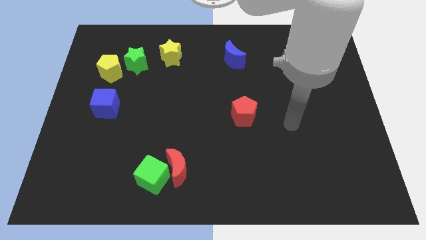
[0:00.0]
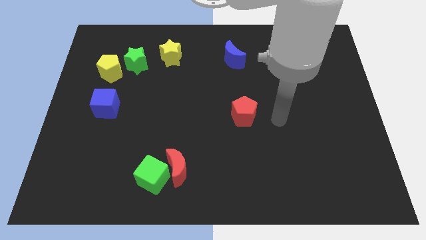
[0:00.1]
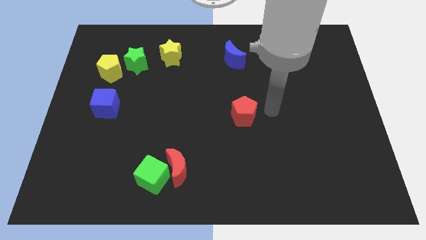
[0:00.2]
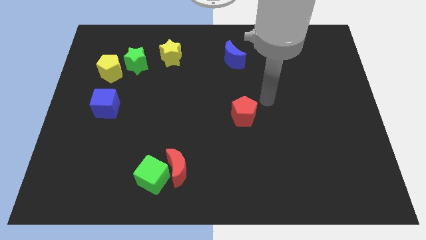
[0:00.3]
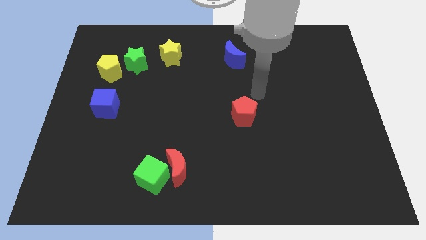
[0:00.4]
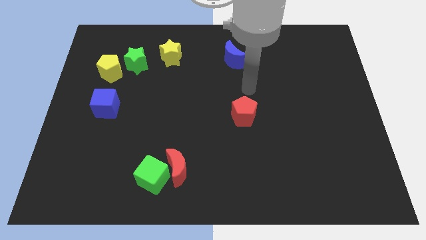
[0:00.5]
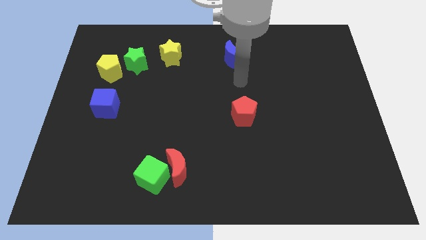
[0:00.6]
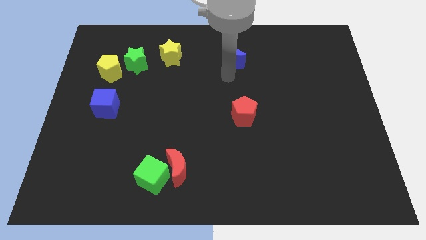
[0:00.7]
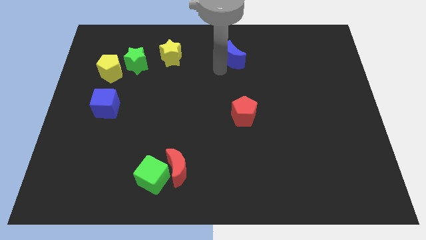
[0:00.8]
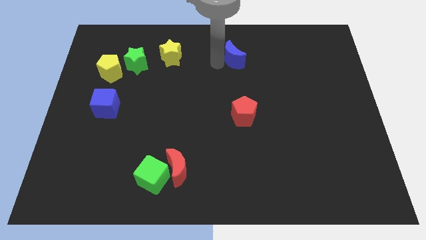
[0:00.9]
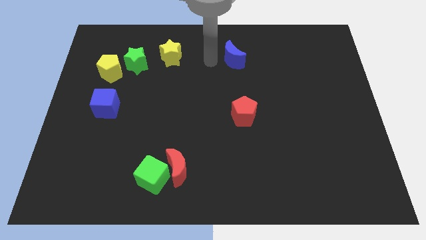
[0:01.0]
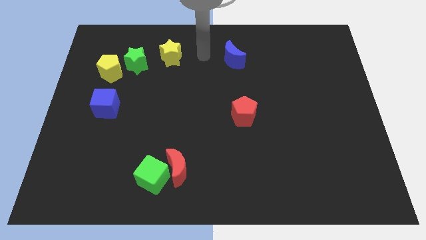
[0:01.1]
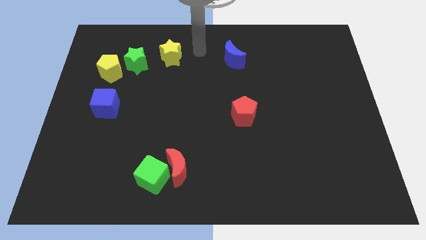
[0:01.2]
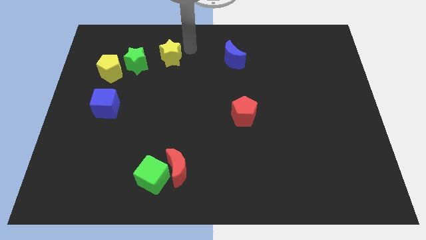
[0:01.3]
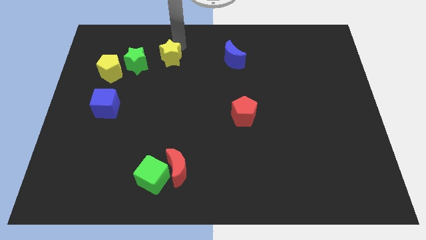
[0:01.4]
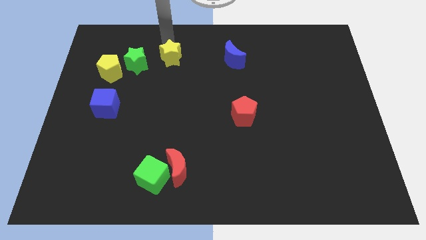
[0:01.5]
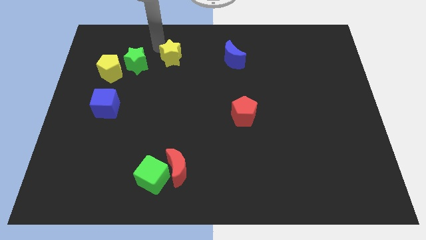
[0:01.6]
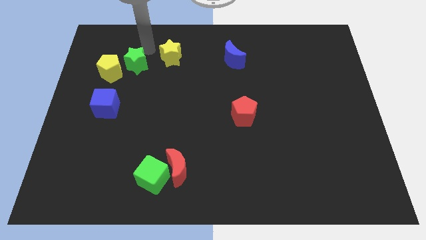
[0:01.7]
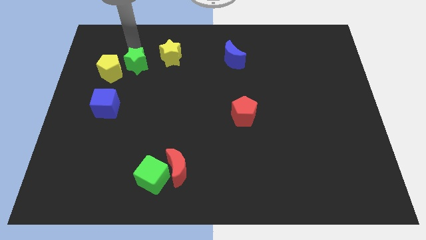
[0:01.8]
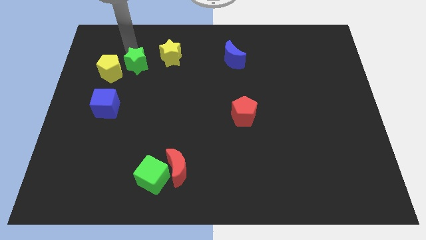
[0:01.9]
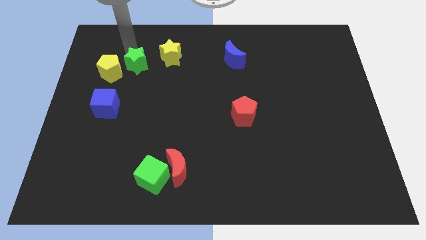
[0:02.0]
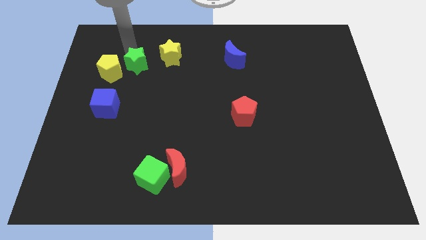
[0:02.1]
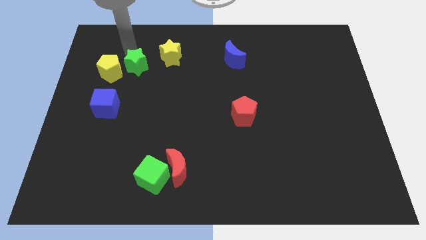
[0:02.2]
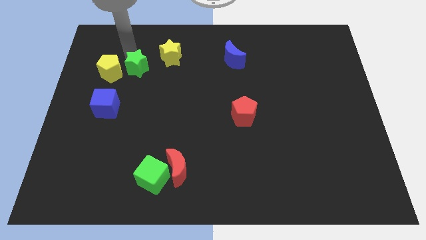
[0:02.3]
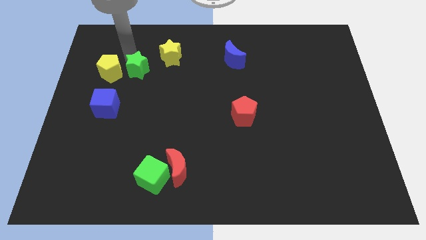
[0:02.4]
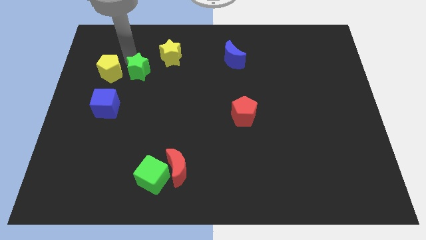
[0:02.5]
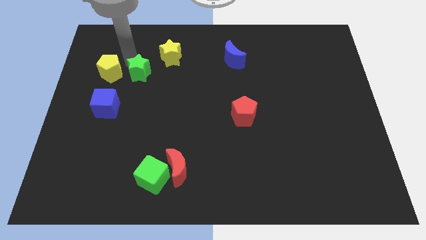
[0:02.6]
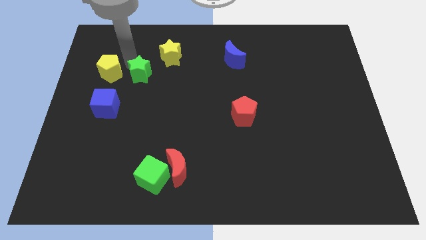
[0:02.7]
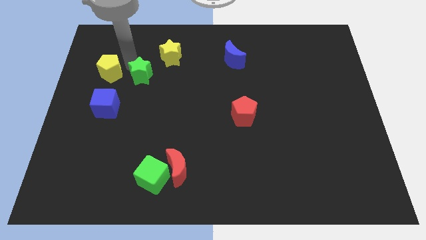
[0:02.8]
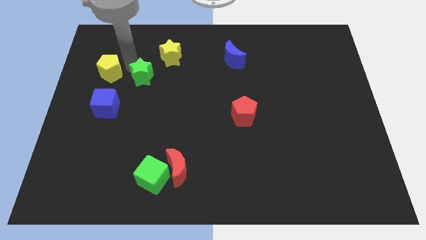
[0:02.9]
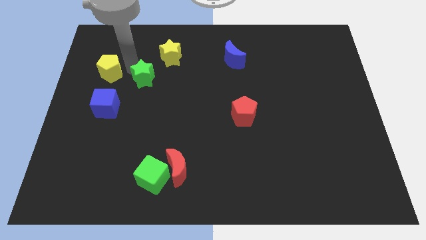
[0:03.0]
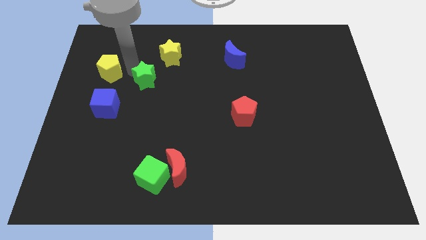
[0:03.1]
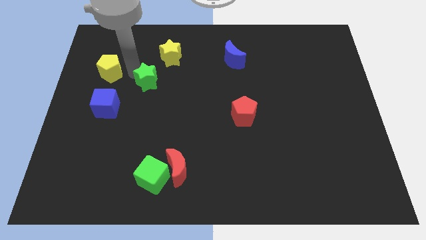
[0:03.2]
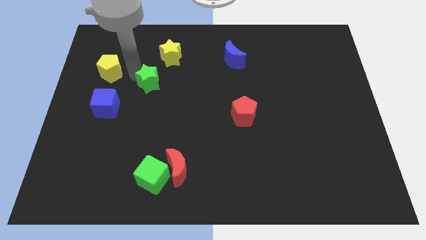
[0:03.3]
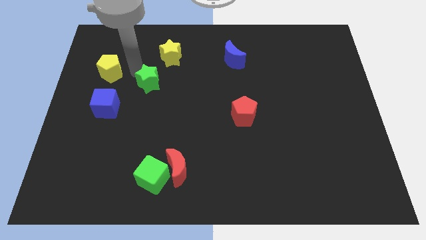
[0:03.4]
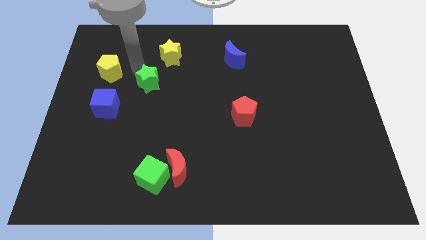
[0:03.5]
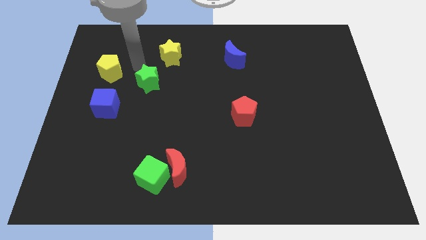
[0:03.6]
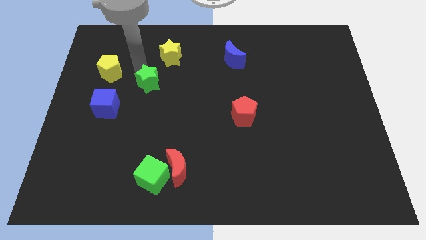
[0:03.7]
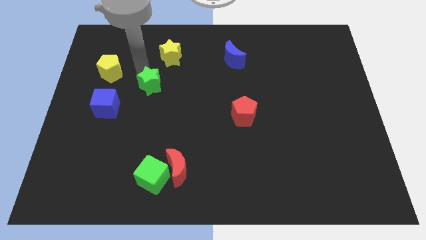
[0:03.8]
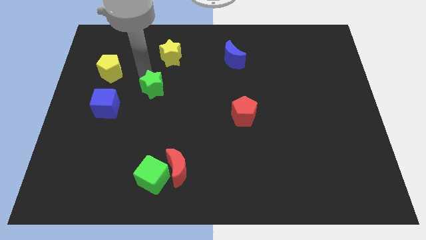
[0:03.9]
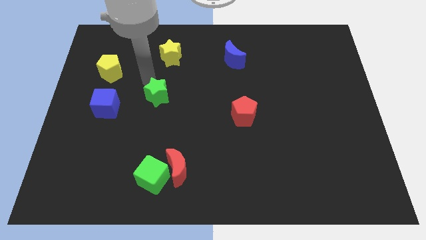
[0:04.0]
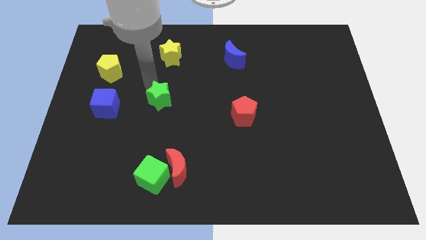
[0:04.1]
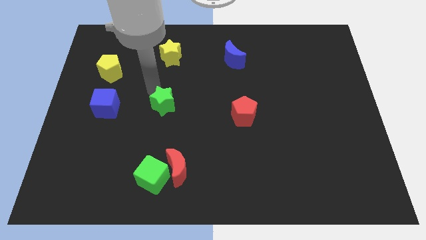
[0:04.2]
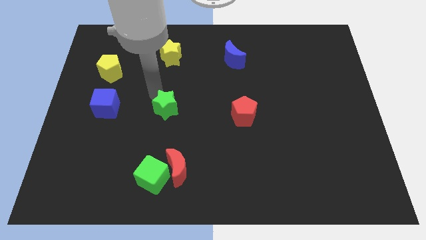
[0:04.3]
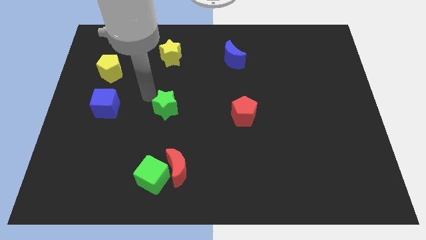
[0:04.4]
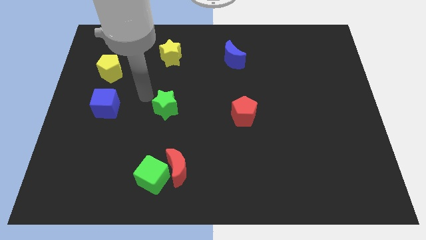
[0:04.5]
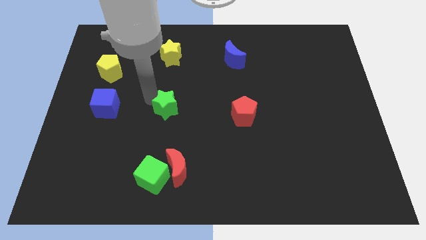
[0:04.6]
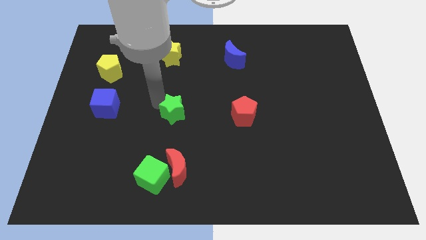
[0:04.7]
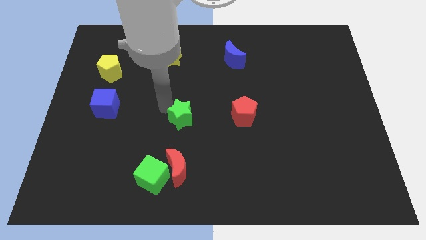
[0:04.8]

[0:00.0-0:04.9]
move the green star down and then to the right

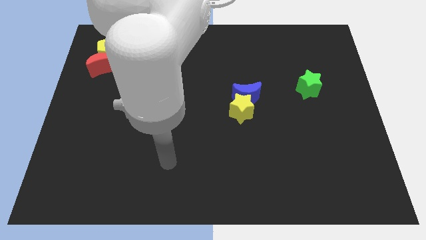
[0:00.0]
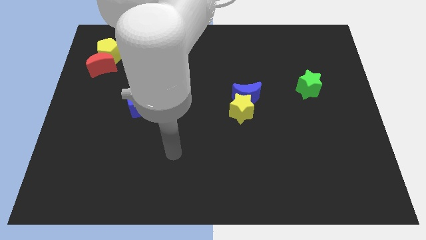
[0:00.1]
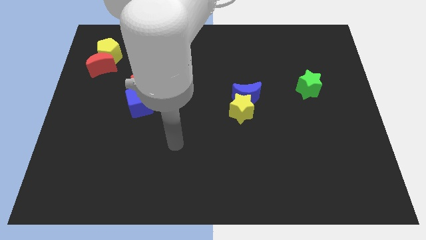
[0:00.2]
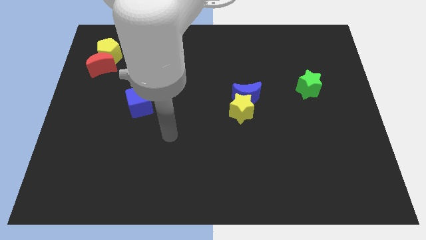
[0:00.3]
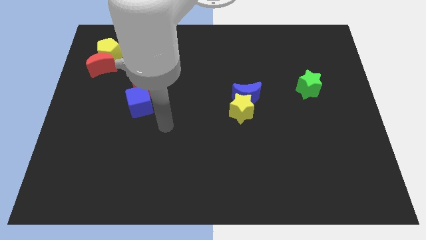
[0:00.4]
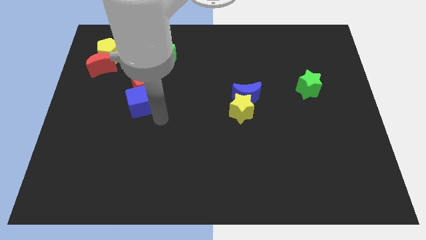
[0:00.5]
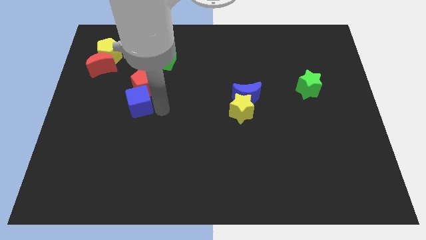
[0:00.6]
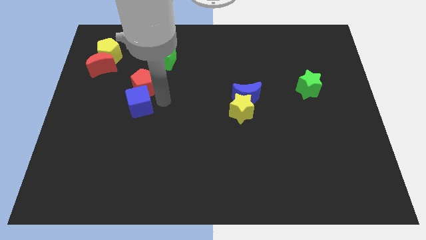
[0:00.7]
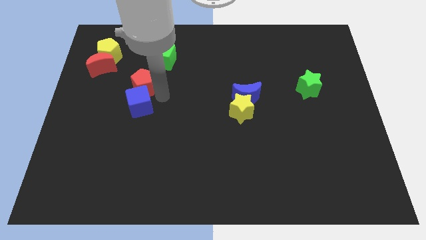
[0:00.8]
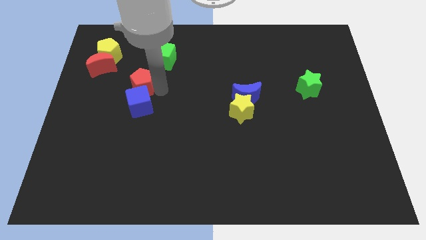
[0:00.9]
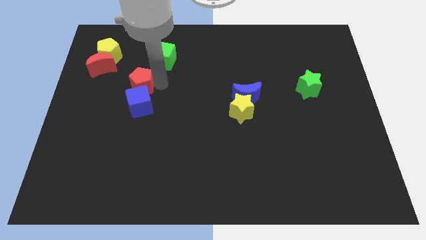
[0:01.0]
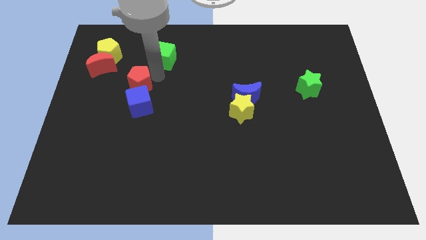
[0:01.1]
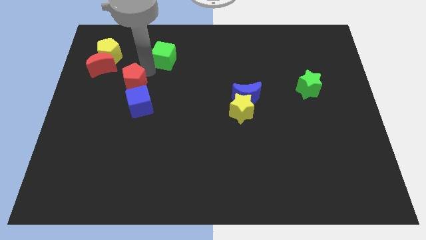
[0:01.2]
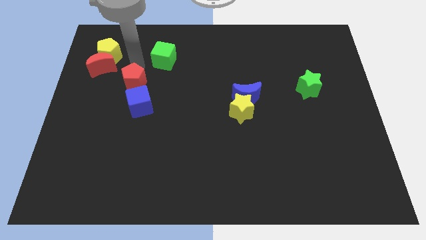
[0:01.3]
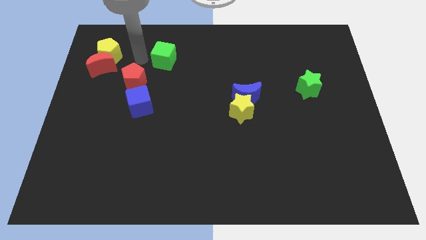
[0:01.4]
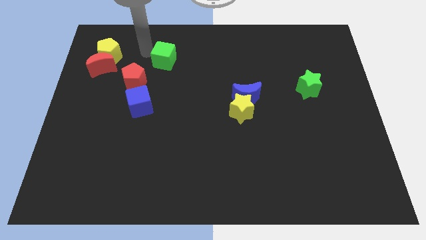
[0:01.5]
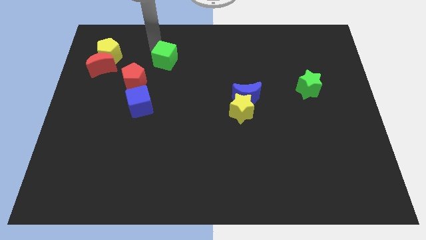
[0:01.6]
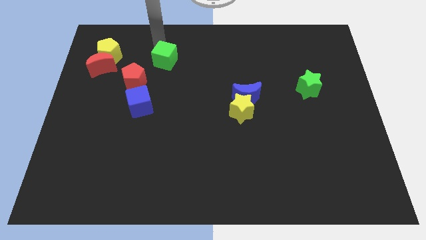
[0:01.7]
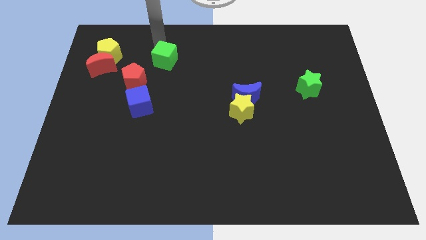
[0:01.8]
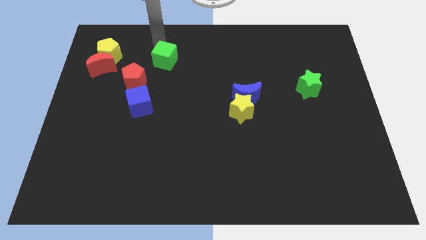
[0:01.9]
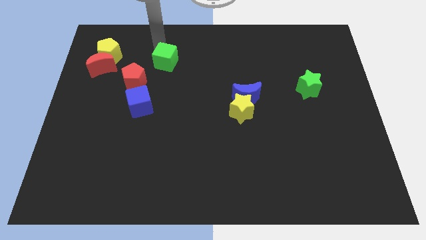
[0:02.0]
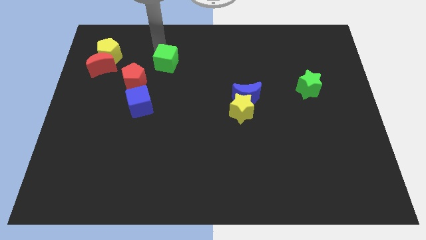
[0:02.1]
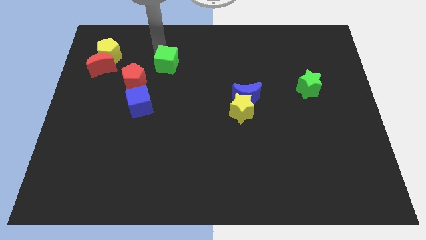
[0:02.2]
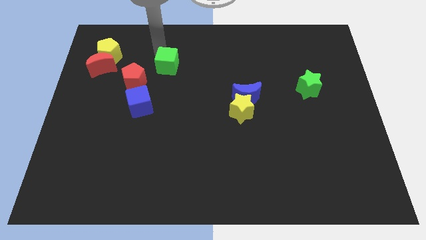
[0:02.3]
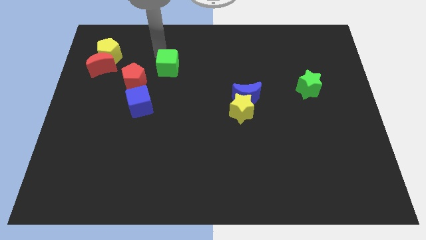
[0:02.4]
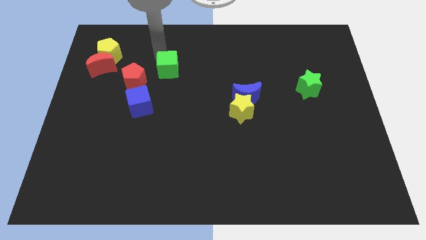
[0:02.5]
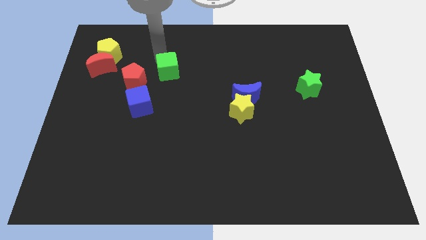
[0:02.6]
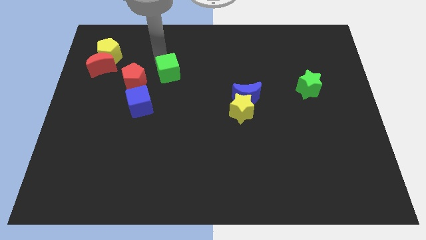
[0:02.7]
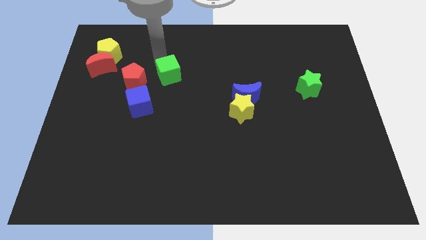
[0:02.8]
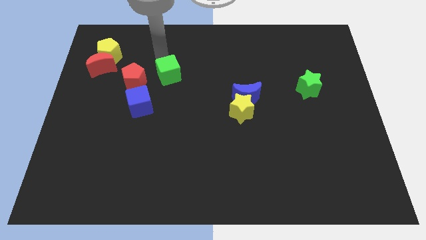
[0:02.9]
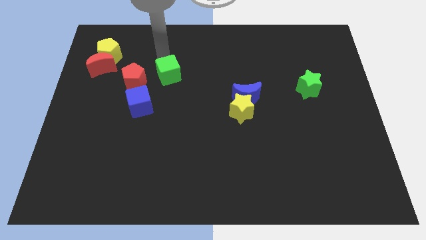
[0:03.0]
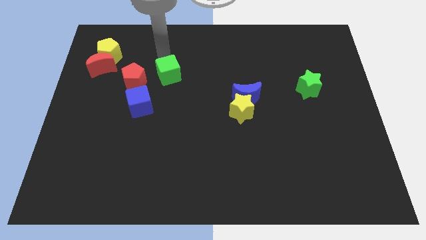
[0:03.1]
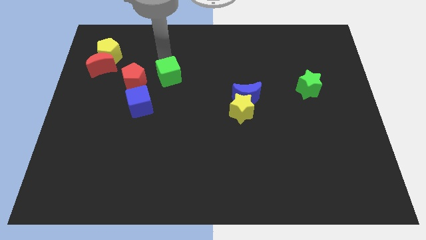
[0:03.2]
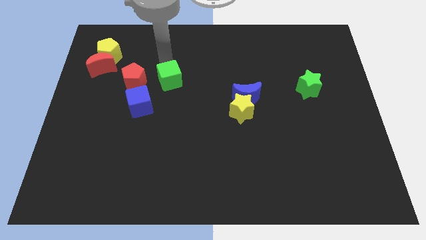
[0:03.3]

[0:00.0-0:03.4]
slightly push the green cube down
